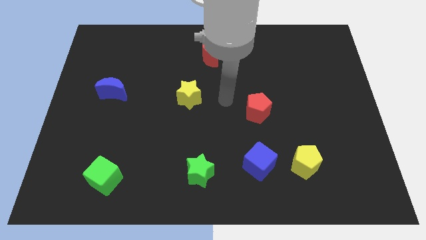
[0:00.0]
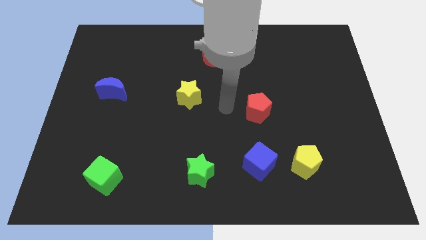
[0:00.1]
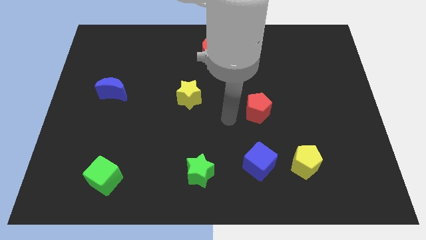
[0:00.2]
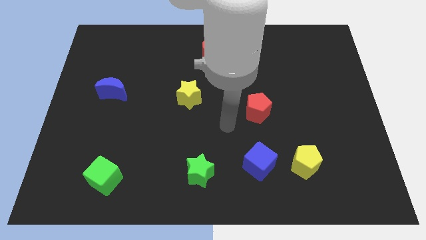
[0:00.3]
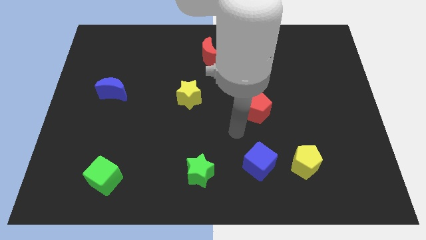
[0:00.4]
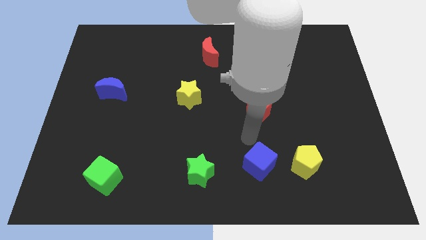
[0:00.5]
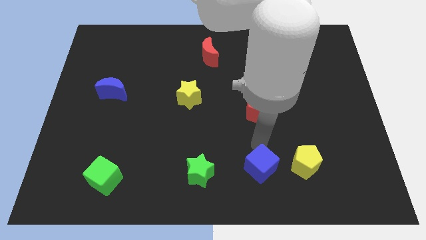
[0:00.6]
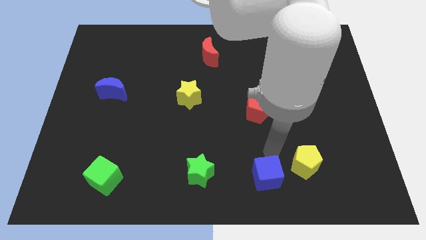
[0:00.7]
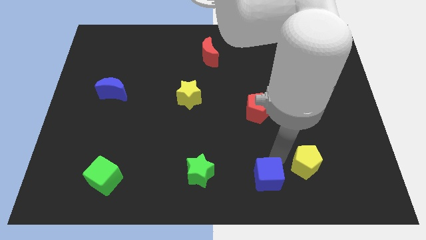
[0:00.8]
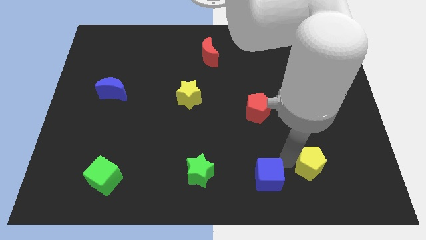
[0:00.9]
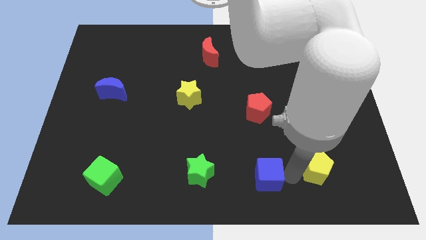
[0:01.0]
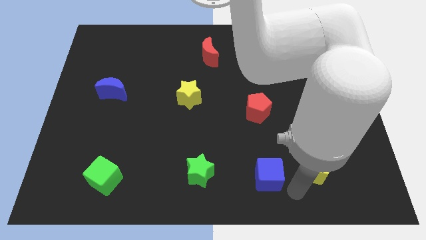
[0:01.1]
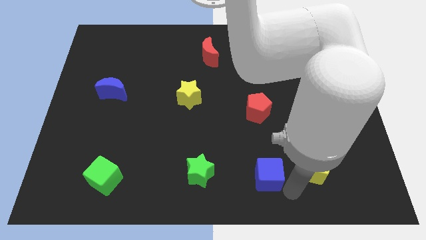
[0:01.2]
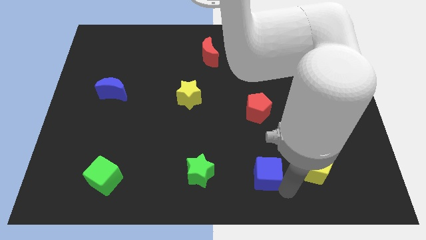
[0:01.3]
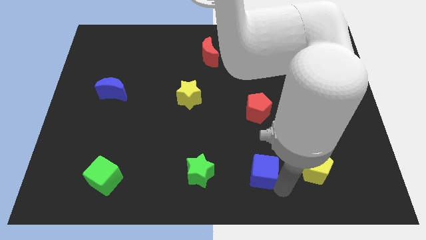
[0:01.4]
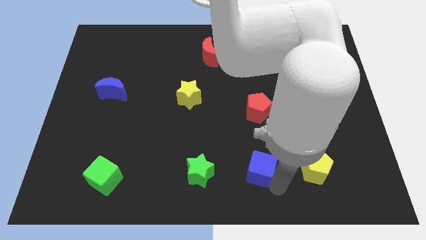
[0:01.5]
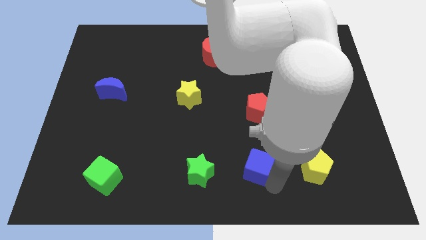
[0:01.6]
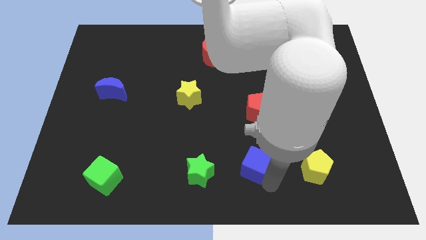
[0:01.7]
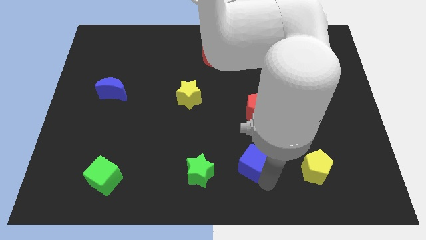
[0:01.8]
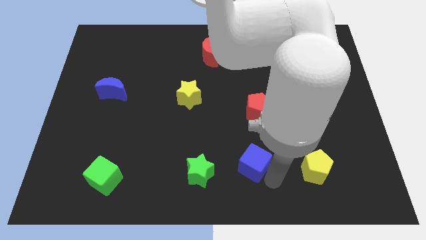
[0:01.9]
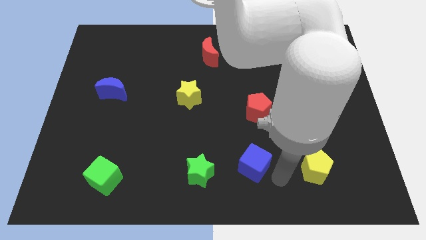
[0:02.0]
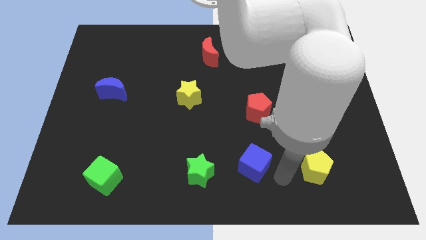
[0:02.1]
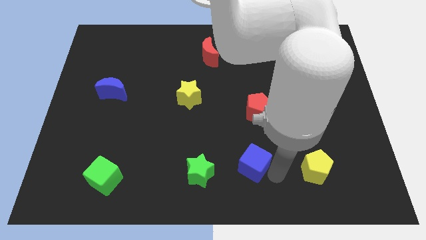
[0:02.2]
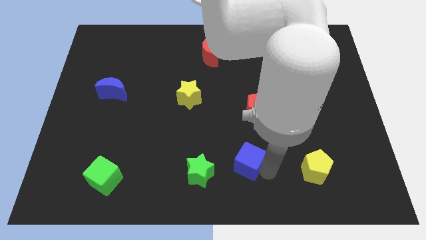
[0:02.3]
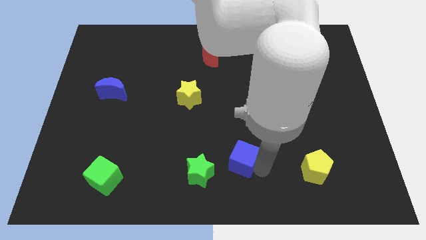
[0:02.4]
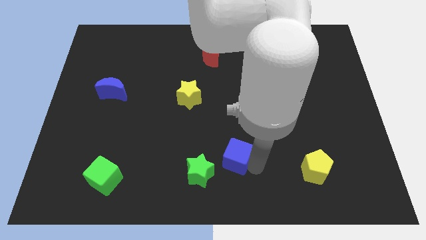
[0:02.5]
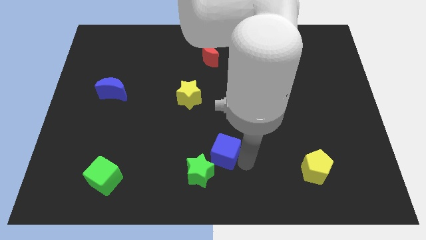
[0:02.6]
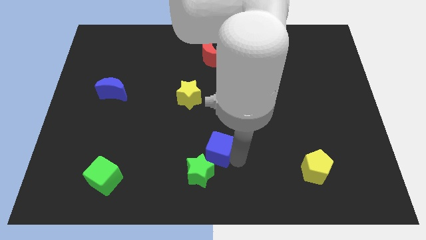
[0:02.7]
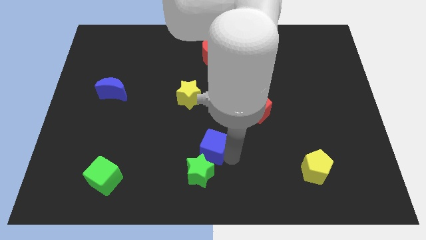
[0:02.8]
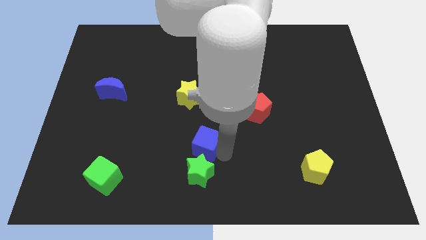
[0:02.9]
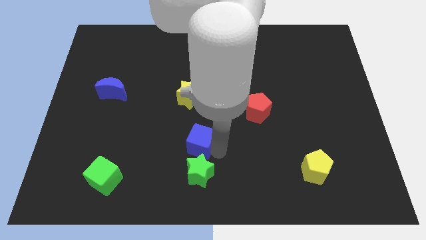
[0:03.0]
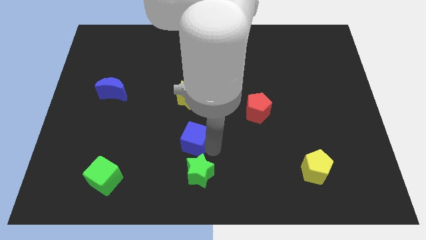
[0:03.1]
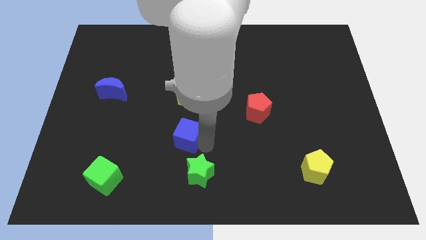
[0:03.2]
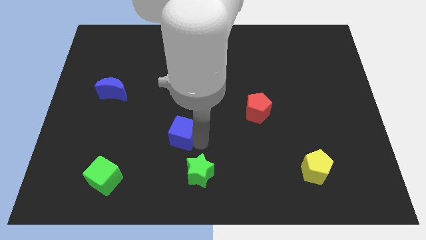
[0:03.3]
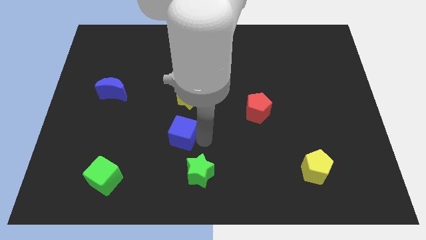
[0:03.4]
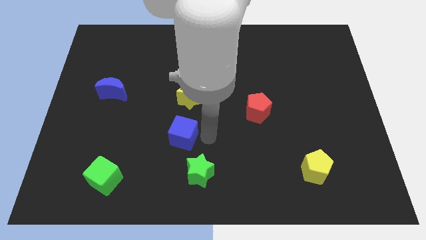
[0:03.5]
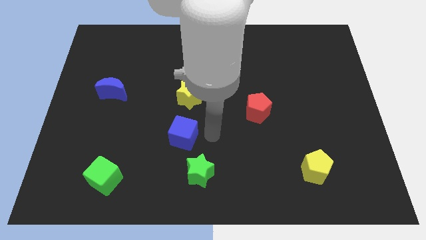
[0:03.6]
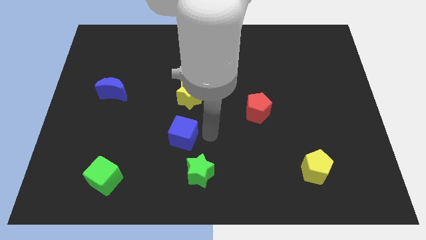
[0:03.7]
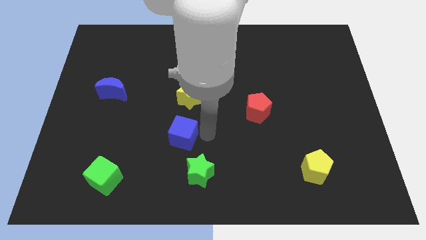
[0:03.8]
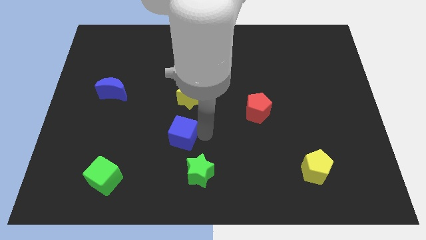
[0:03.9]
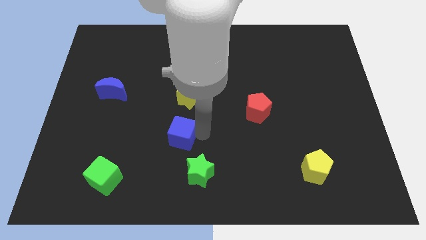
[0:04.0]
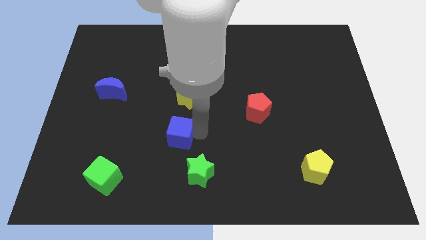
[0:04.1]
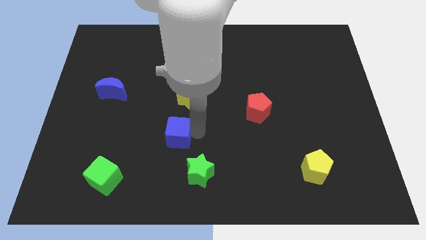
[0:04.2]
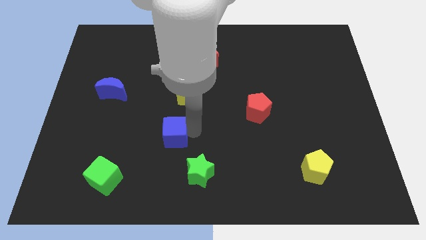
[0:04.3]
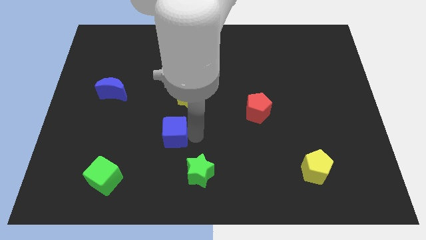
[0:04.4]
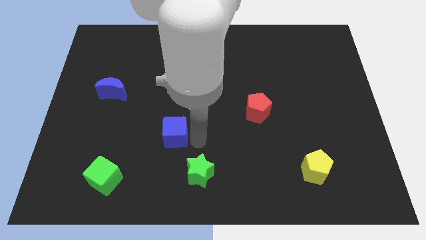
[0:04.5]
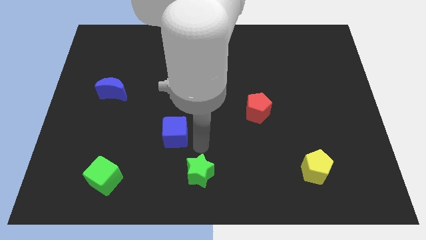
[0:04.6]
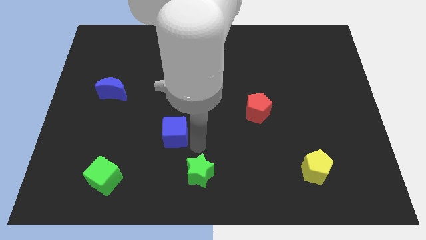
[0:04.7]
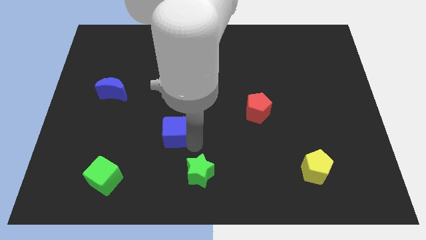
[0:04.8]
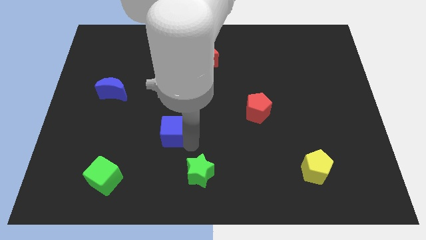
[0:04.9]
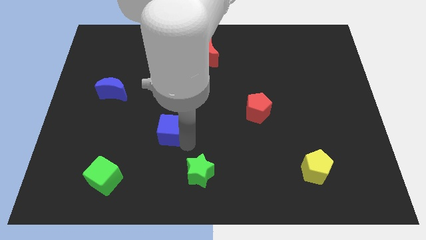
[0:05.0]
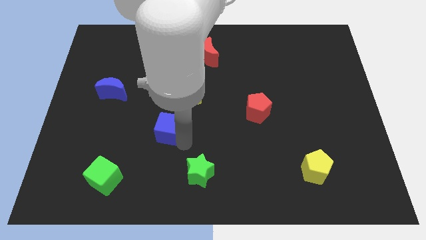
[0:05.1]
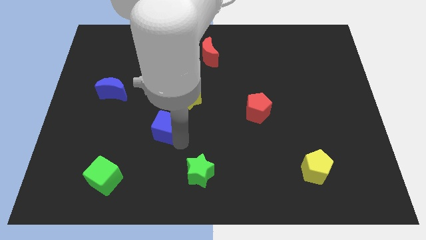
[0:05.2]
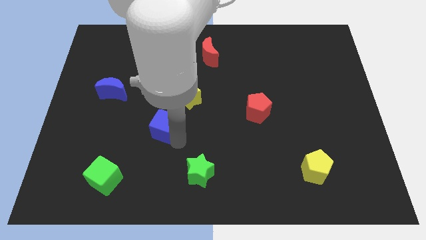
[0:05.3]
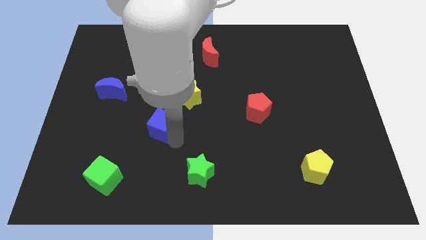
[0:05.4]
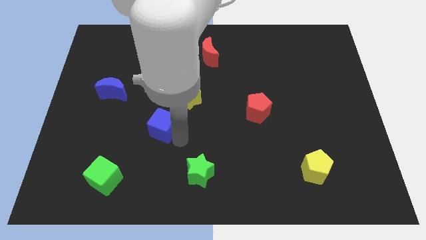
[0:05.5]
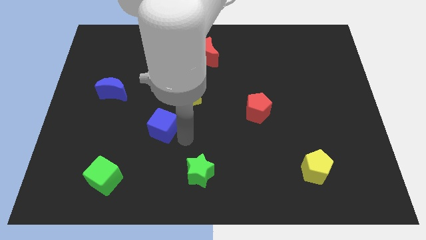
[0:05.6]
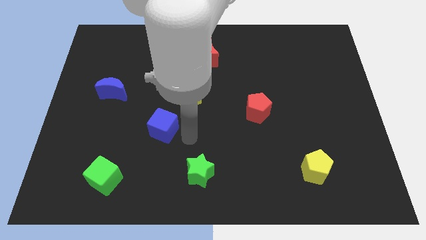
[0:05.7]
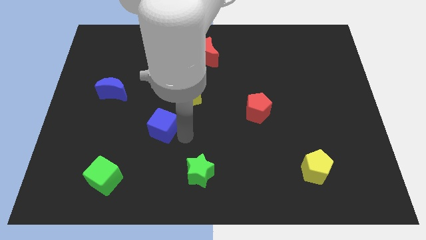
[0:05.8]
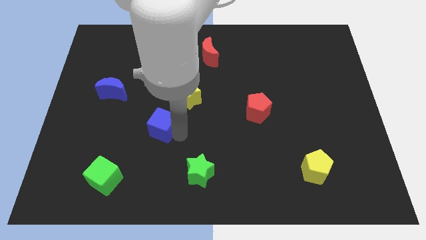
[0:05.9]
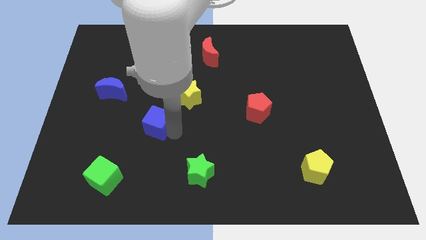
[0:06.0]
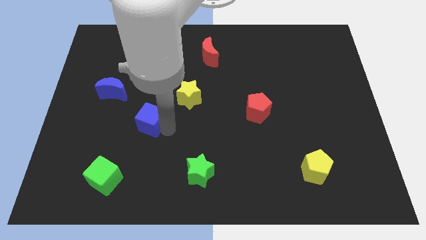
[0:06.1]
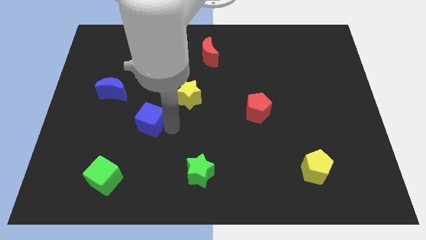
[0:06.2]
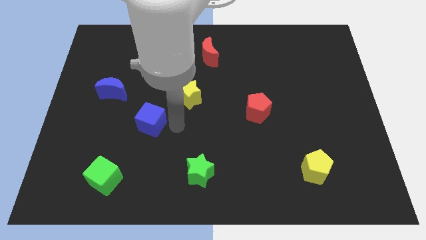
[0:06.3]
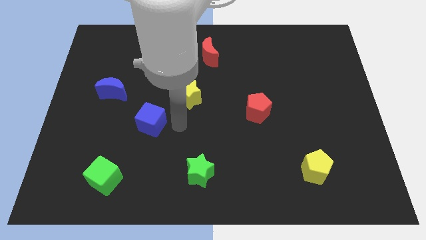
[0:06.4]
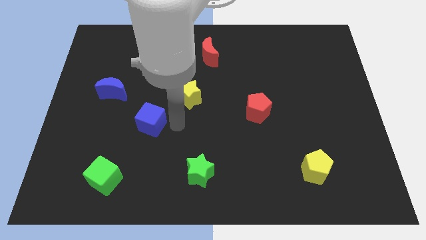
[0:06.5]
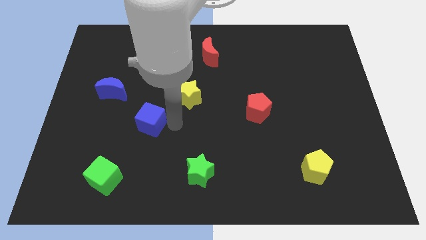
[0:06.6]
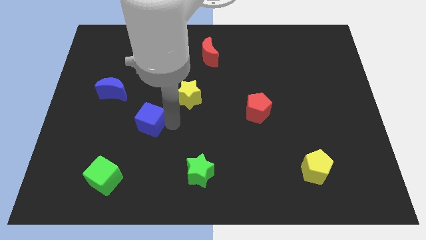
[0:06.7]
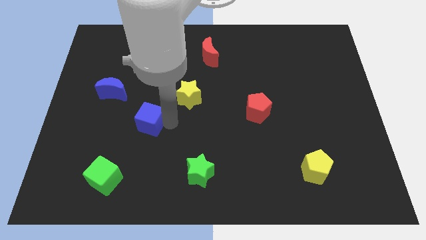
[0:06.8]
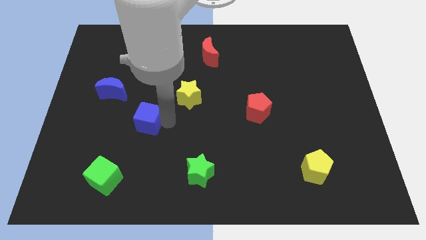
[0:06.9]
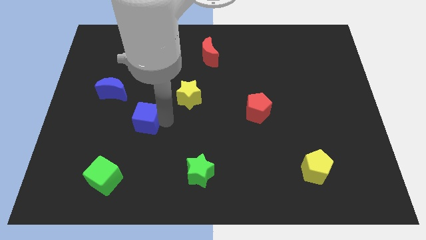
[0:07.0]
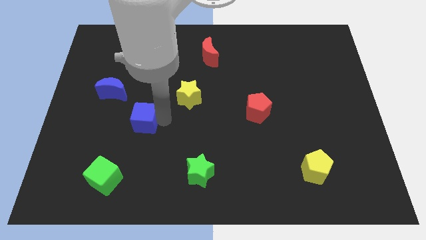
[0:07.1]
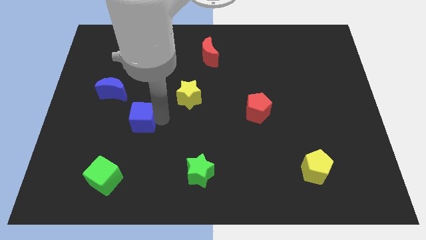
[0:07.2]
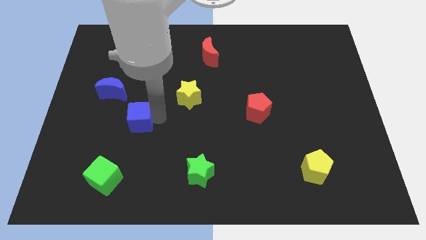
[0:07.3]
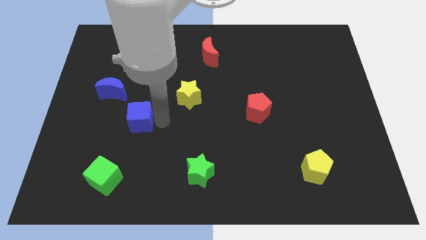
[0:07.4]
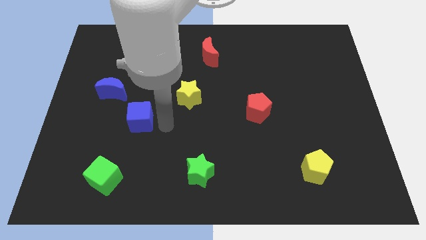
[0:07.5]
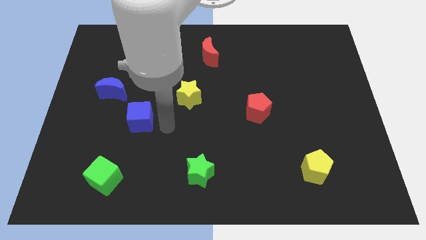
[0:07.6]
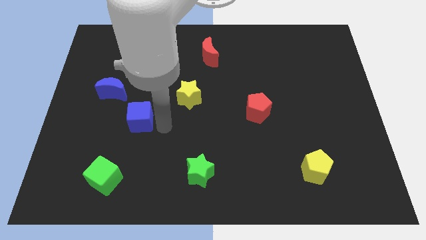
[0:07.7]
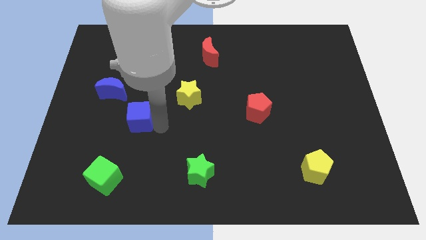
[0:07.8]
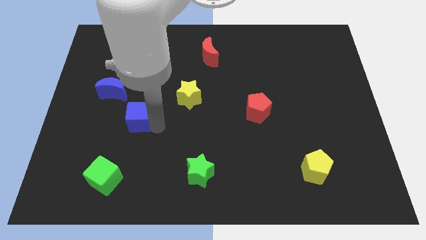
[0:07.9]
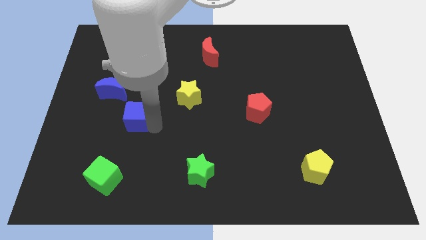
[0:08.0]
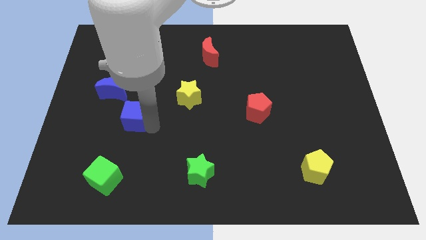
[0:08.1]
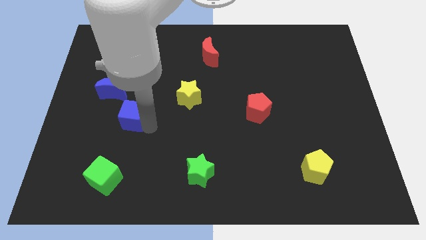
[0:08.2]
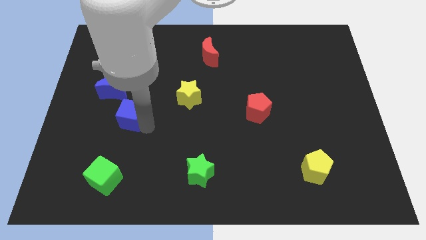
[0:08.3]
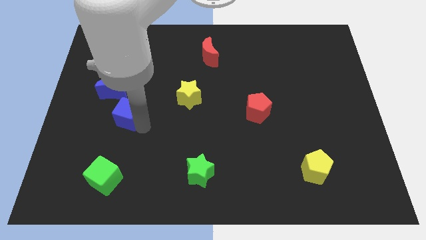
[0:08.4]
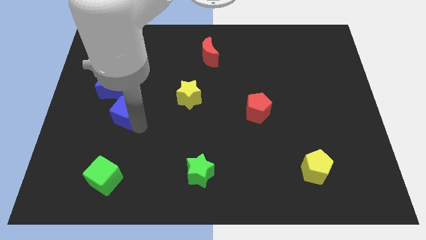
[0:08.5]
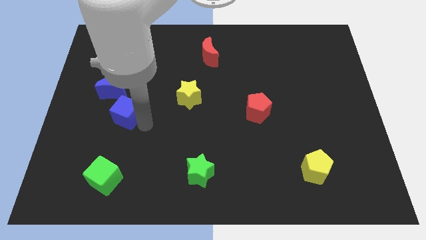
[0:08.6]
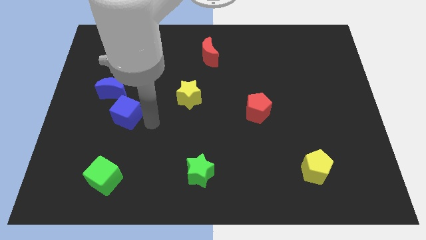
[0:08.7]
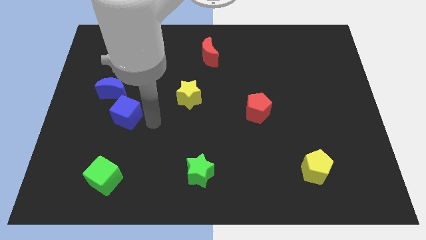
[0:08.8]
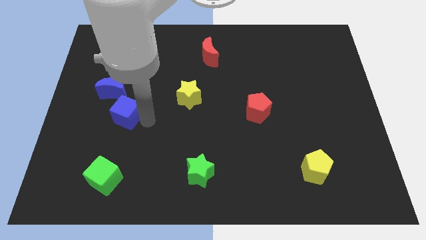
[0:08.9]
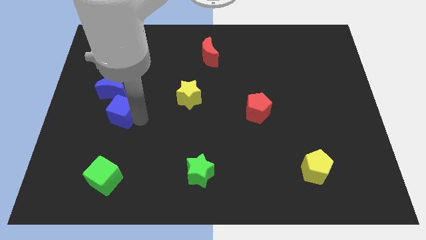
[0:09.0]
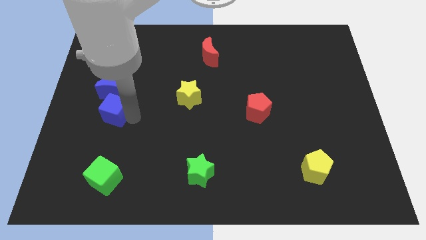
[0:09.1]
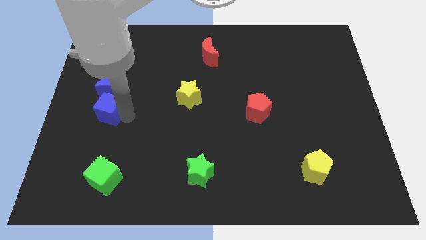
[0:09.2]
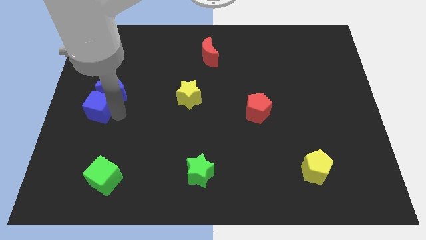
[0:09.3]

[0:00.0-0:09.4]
put the blue cube to the left side
